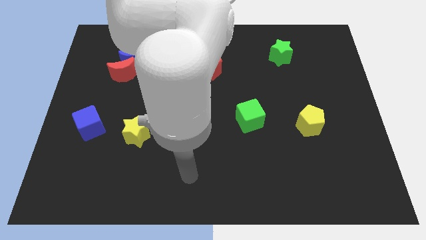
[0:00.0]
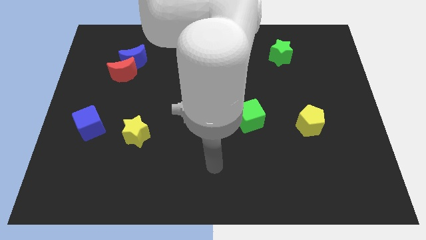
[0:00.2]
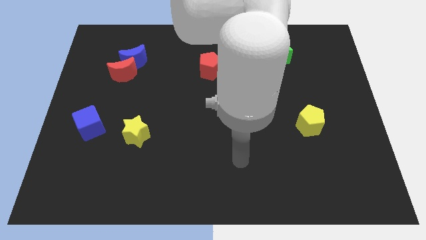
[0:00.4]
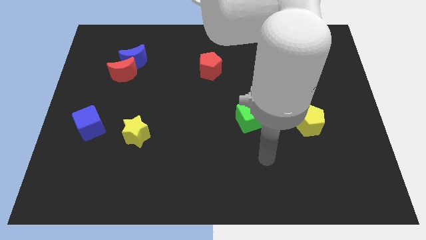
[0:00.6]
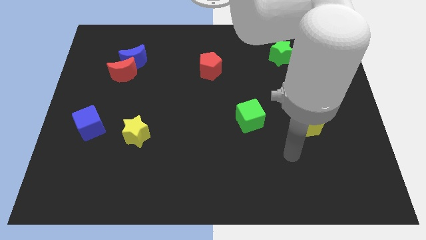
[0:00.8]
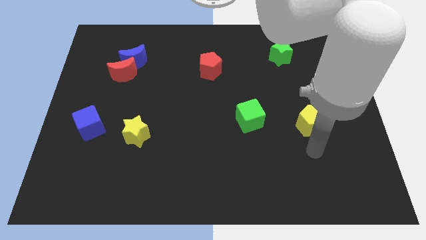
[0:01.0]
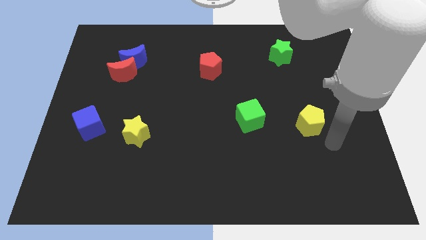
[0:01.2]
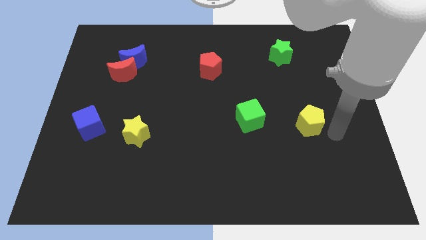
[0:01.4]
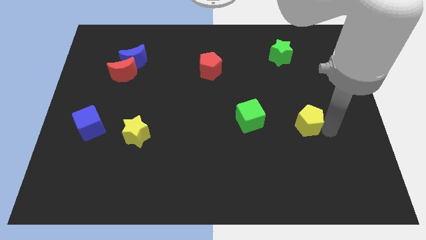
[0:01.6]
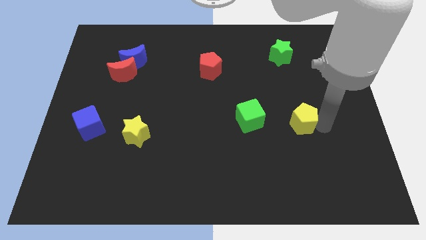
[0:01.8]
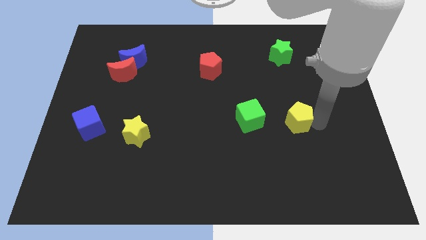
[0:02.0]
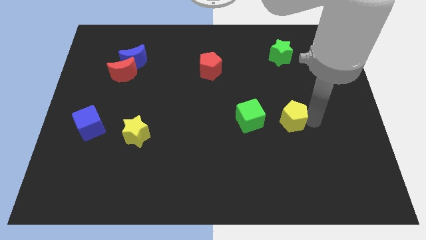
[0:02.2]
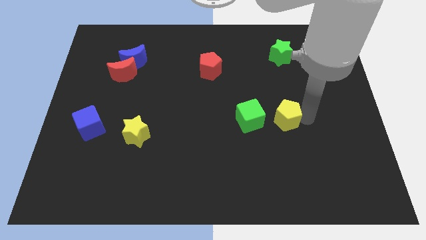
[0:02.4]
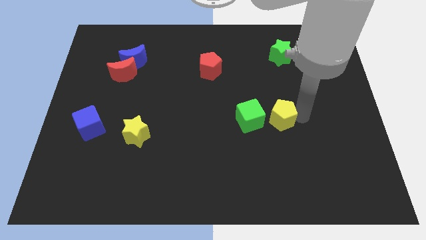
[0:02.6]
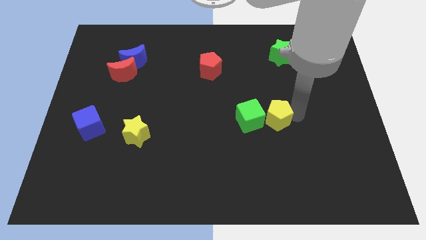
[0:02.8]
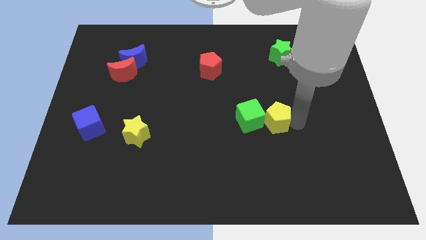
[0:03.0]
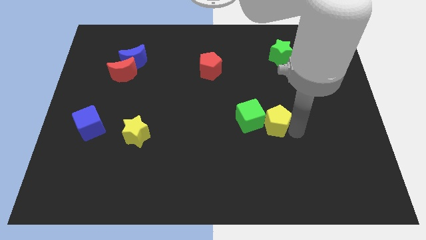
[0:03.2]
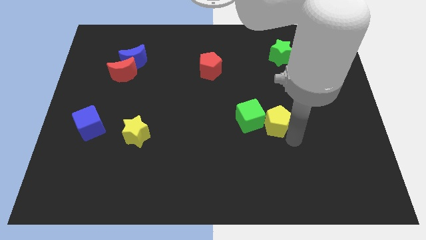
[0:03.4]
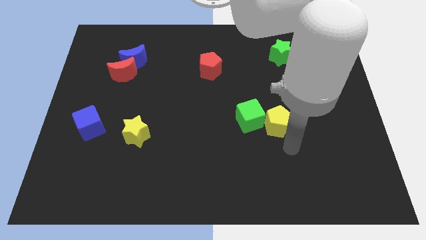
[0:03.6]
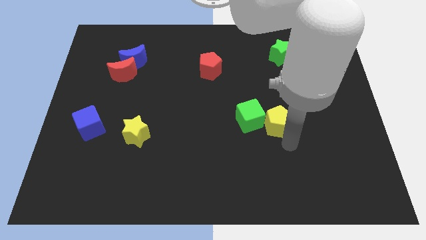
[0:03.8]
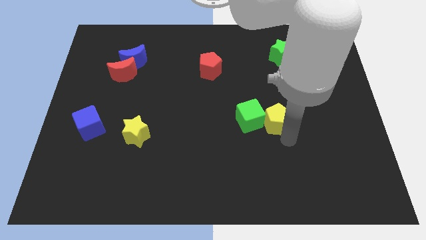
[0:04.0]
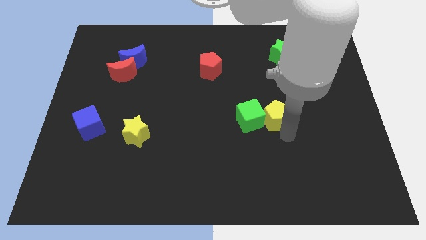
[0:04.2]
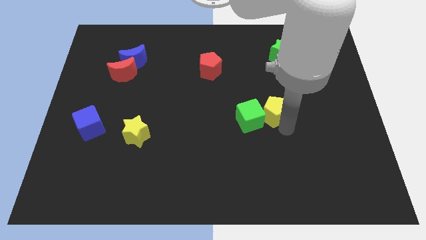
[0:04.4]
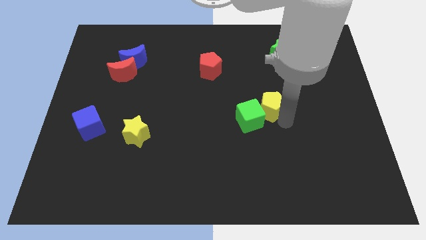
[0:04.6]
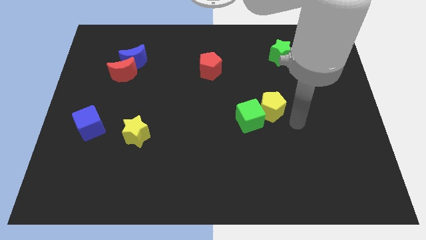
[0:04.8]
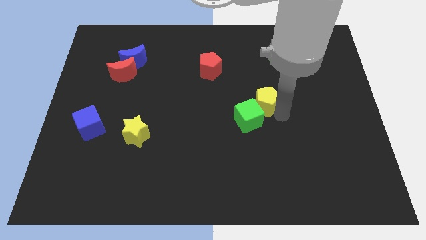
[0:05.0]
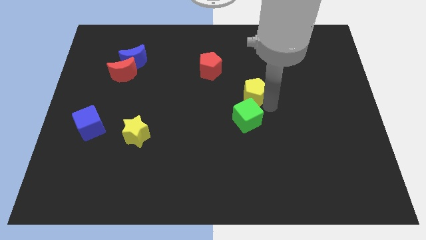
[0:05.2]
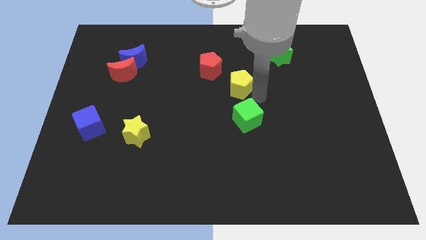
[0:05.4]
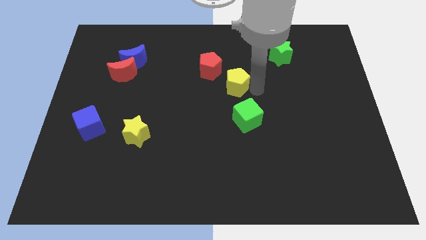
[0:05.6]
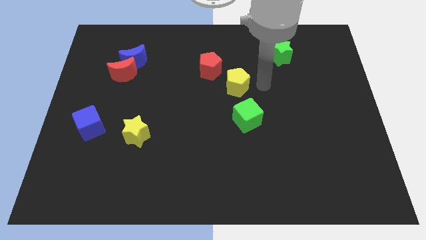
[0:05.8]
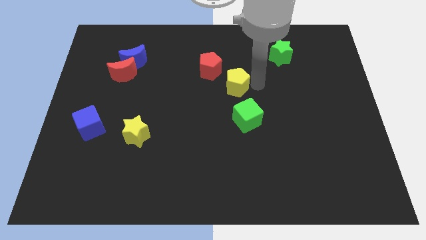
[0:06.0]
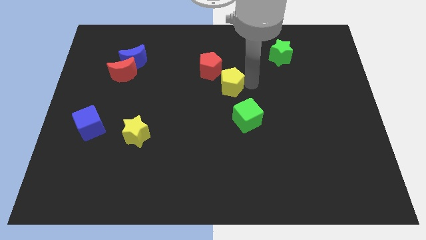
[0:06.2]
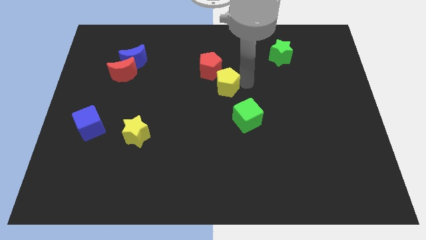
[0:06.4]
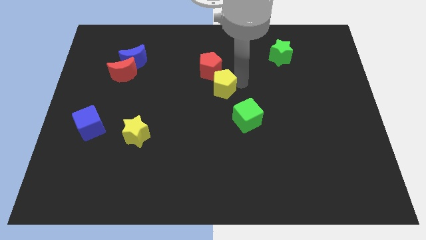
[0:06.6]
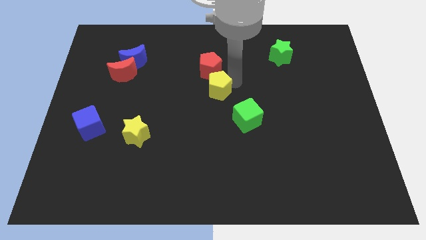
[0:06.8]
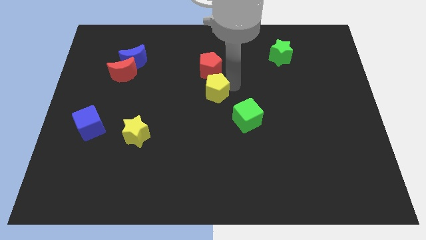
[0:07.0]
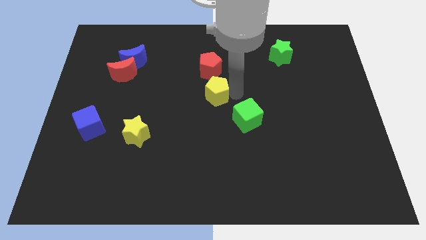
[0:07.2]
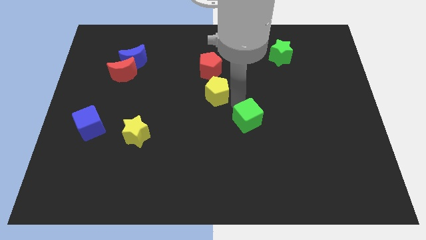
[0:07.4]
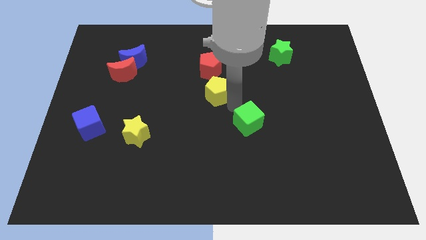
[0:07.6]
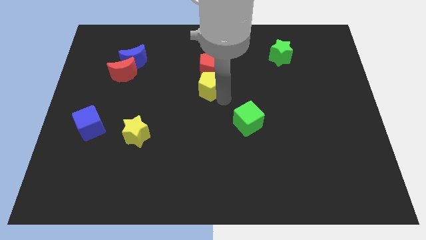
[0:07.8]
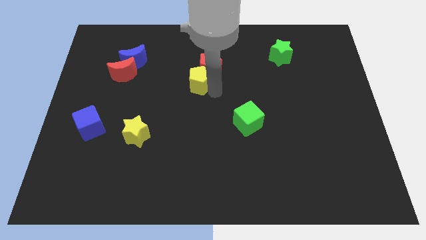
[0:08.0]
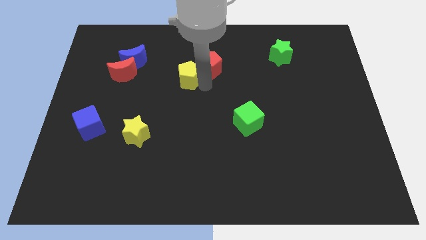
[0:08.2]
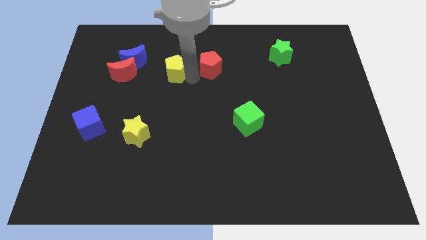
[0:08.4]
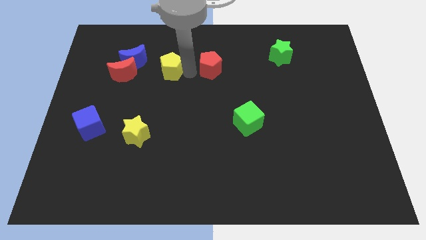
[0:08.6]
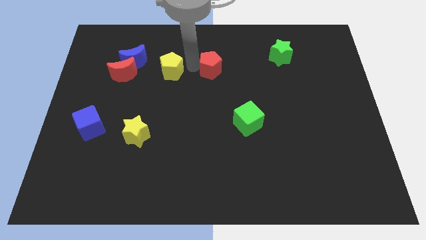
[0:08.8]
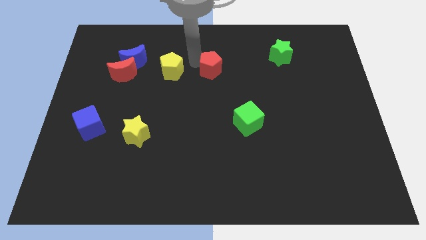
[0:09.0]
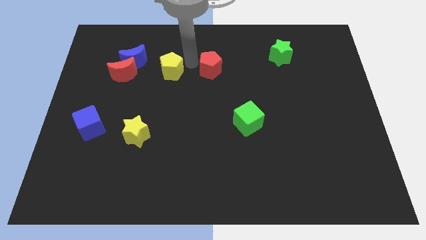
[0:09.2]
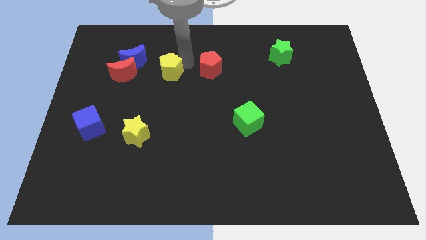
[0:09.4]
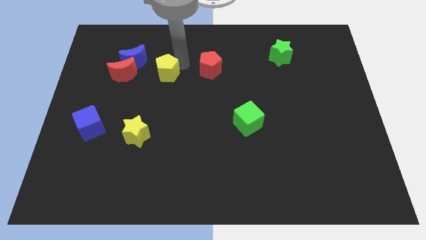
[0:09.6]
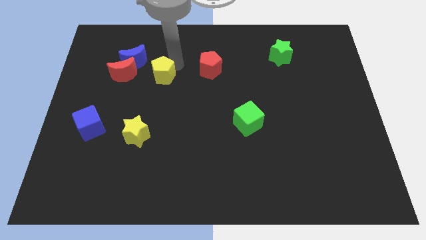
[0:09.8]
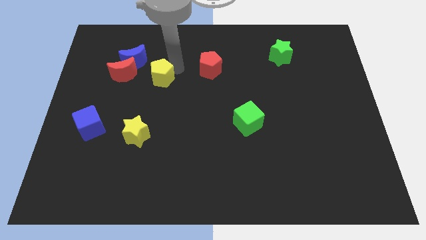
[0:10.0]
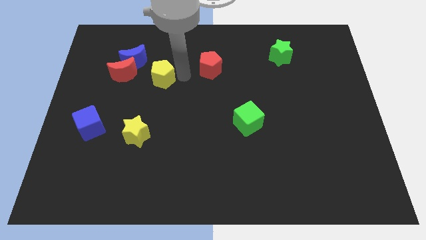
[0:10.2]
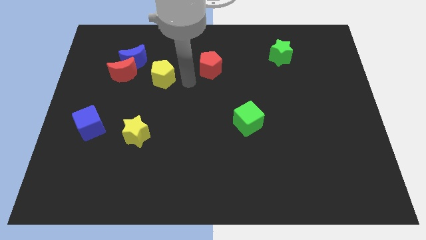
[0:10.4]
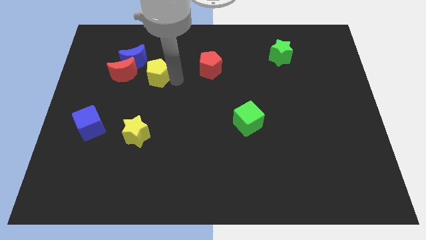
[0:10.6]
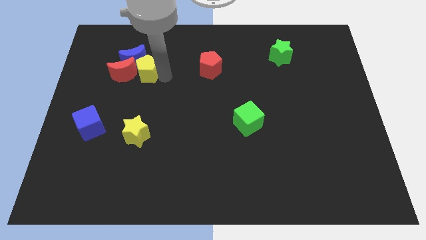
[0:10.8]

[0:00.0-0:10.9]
move the yellow pentagon next to the red moon

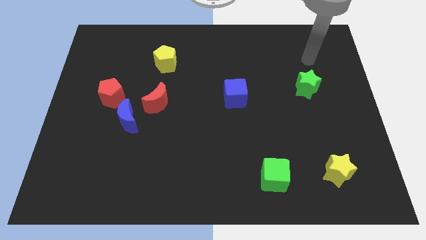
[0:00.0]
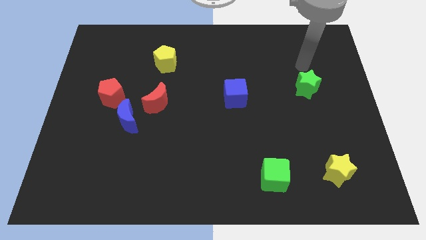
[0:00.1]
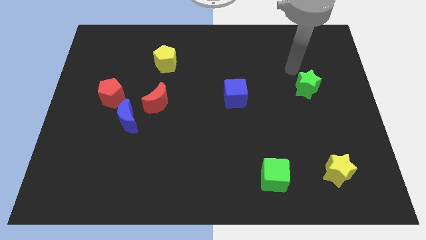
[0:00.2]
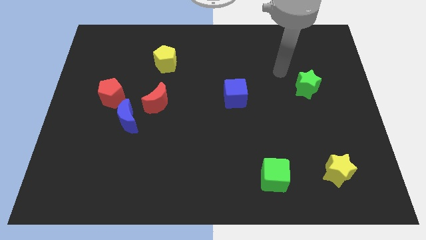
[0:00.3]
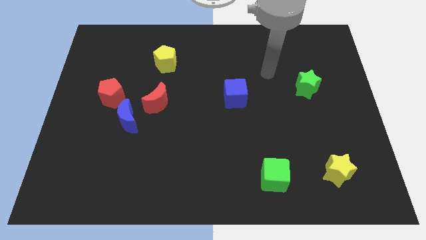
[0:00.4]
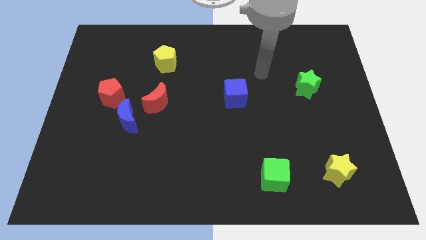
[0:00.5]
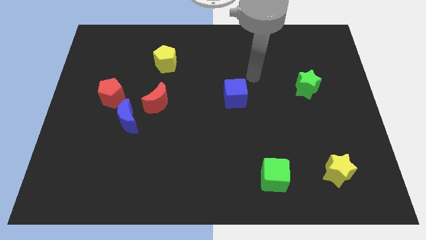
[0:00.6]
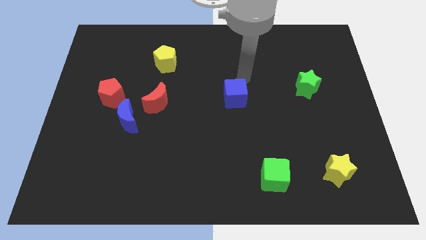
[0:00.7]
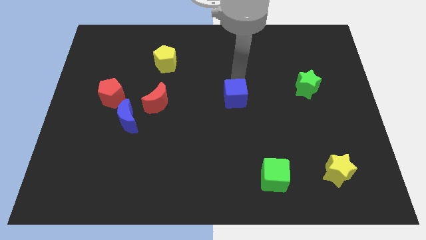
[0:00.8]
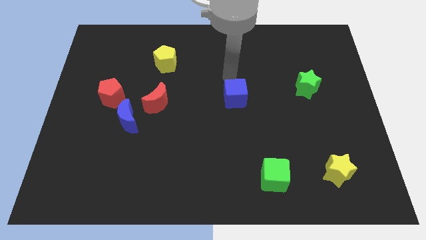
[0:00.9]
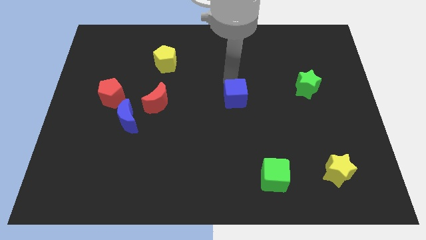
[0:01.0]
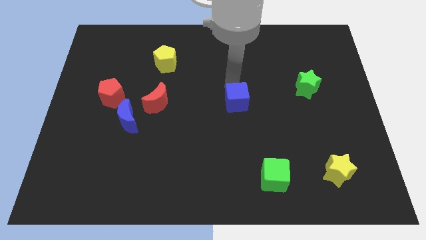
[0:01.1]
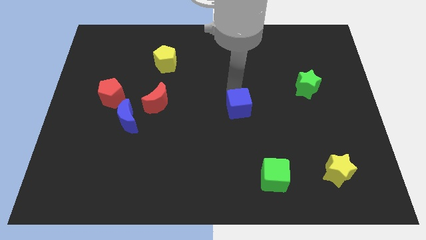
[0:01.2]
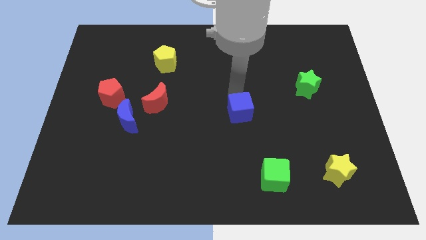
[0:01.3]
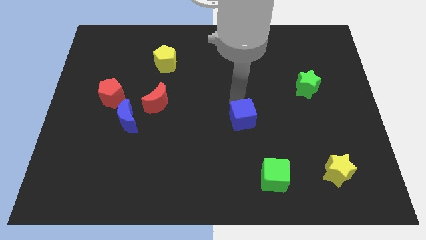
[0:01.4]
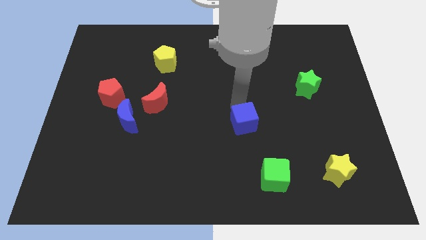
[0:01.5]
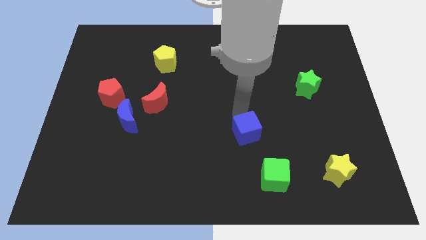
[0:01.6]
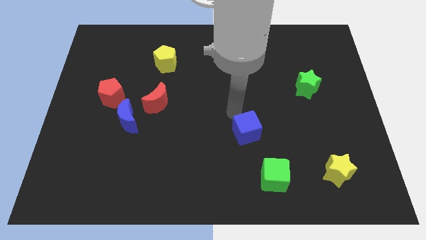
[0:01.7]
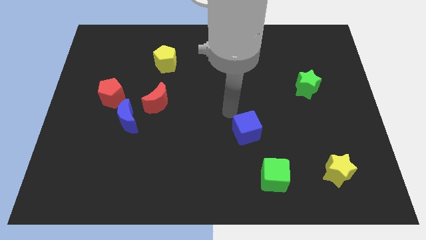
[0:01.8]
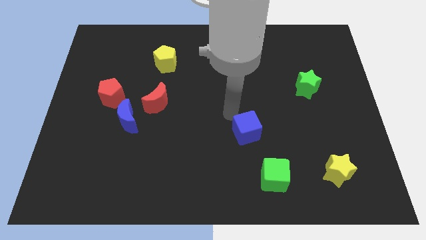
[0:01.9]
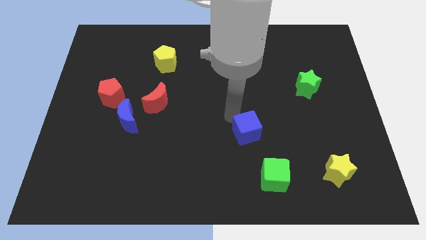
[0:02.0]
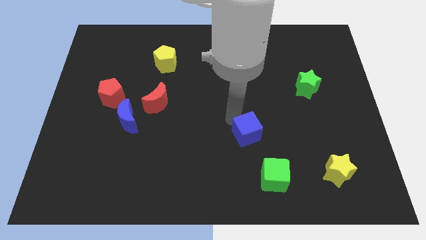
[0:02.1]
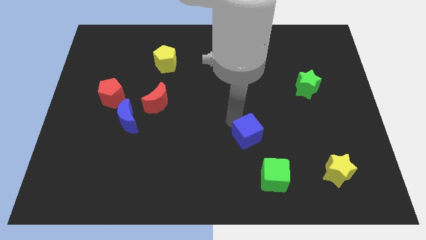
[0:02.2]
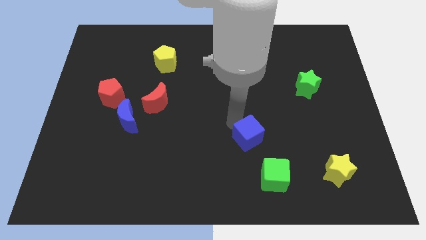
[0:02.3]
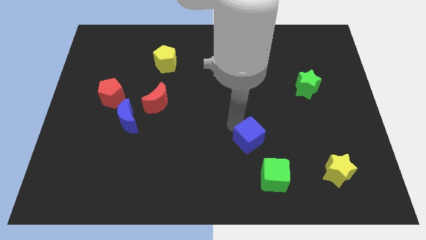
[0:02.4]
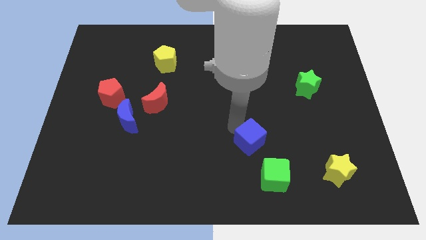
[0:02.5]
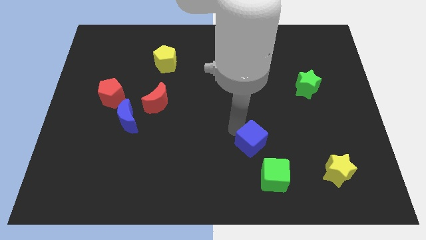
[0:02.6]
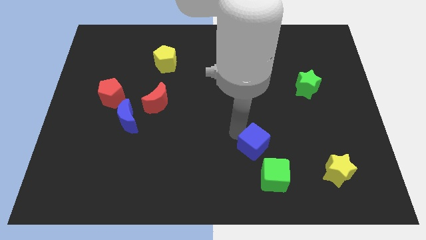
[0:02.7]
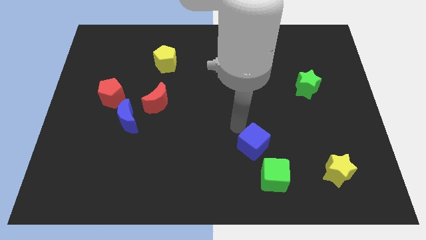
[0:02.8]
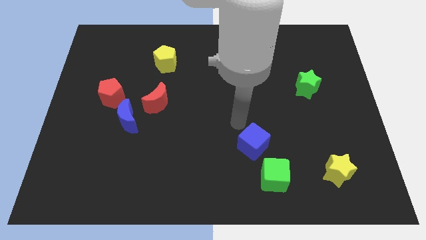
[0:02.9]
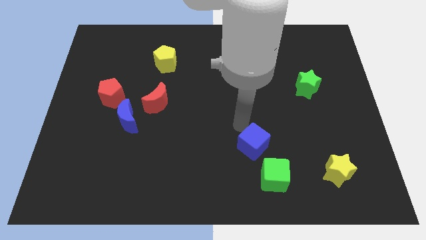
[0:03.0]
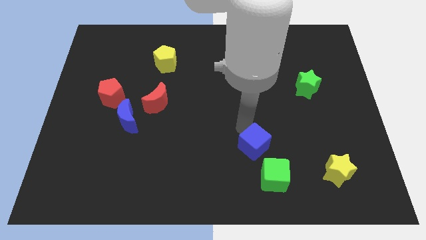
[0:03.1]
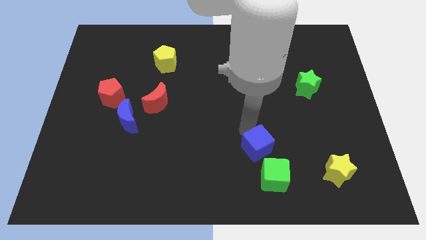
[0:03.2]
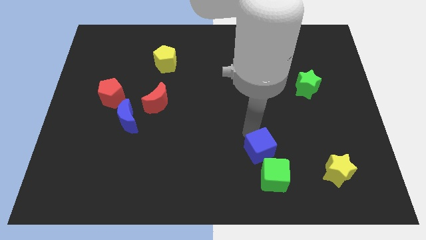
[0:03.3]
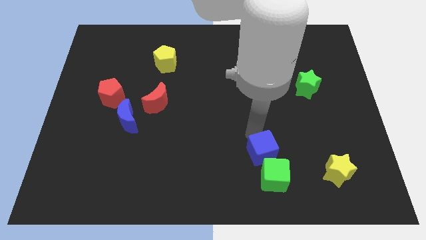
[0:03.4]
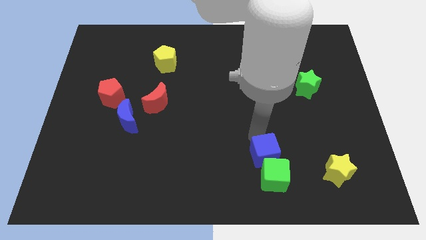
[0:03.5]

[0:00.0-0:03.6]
push the blue cube towards the green cube
